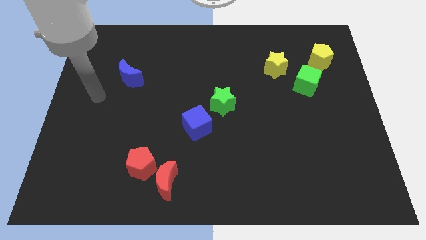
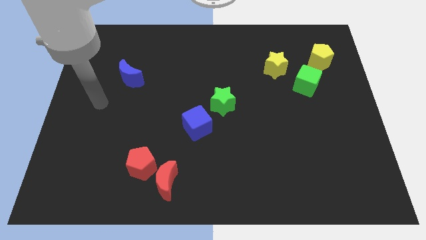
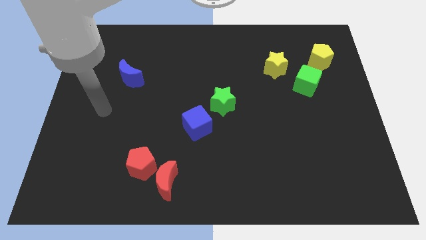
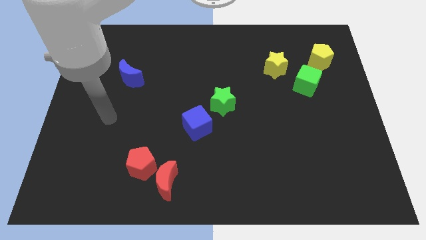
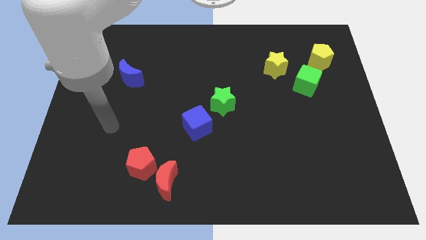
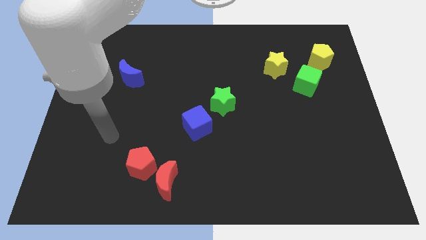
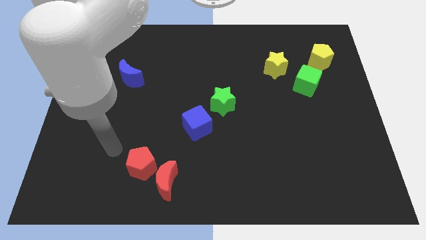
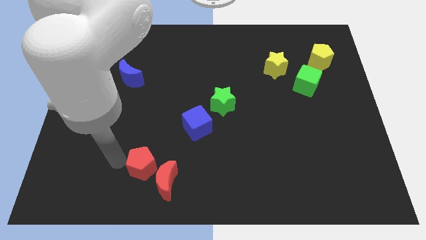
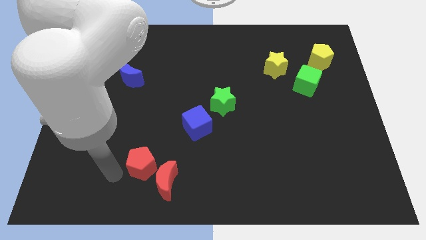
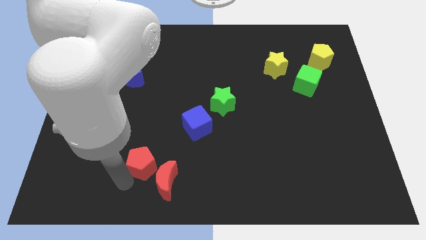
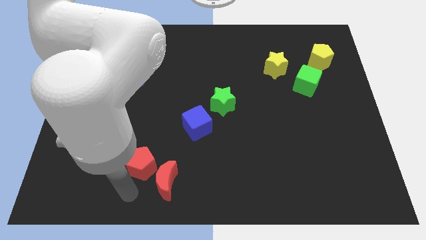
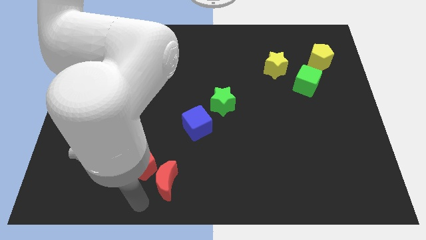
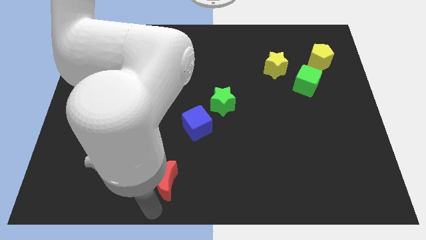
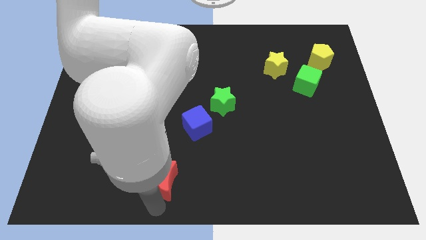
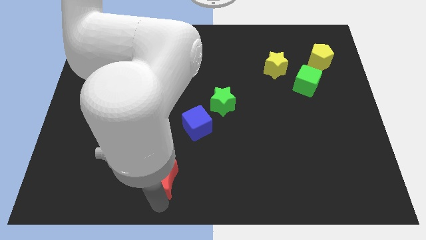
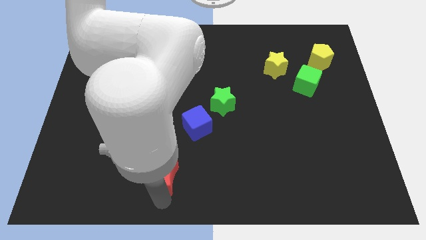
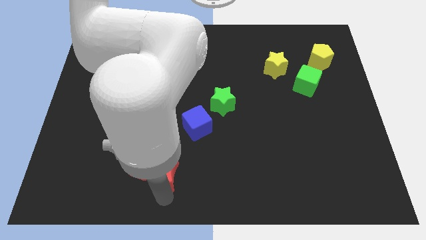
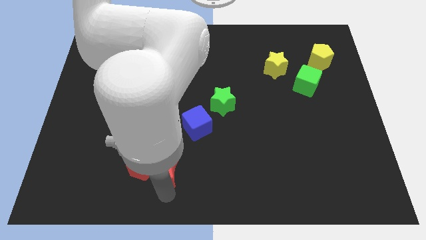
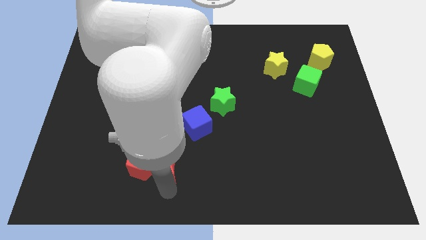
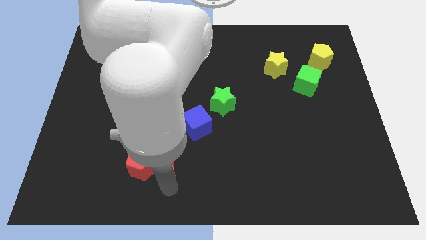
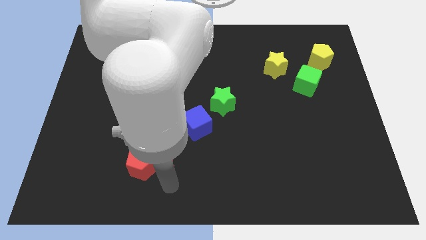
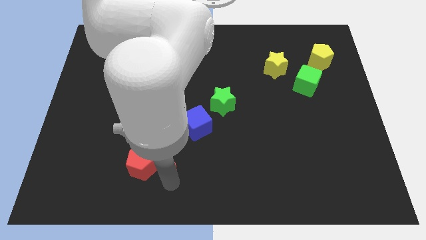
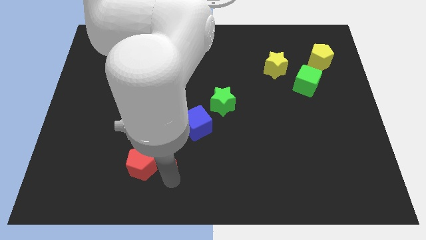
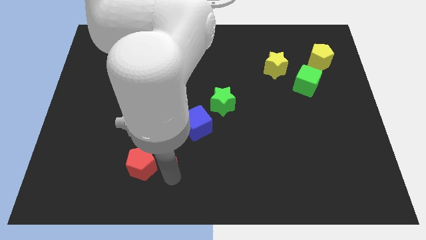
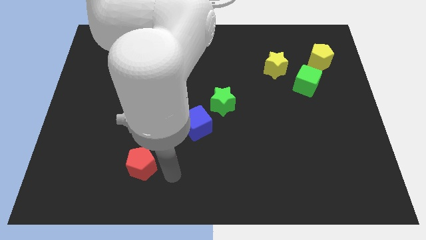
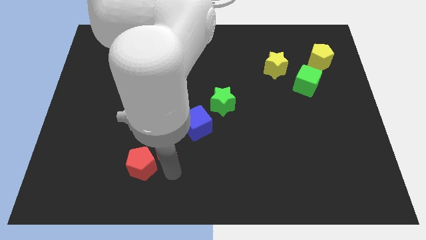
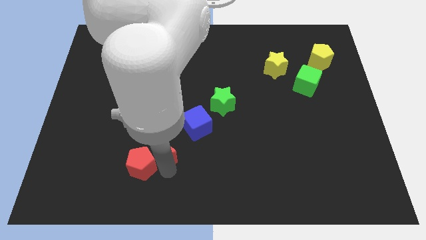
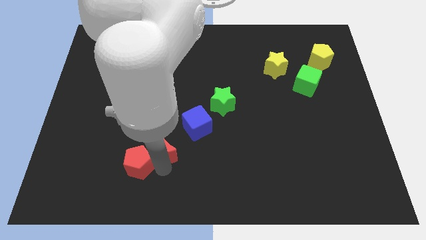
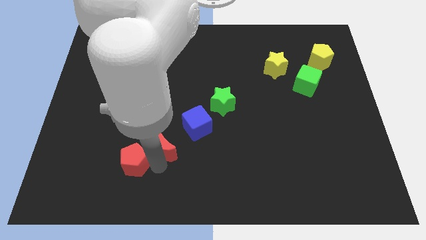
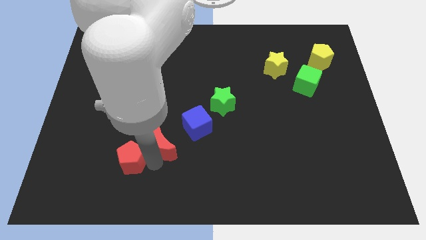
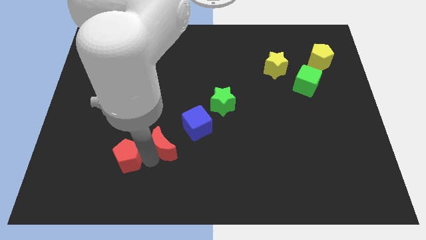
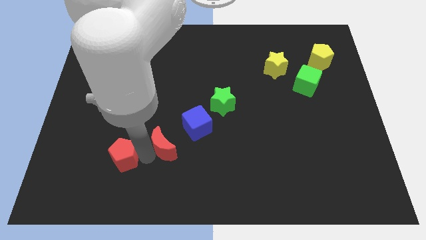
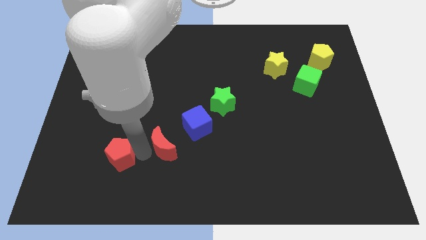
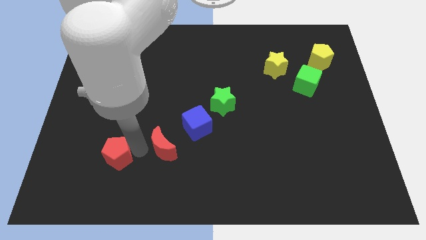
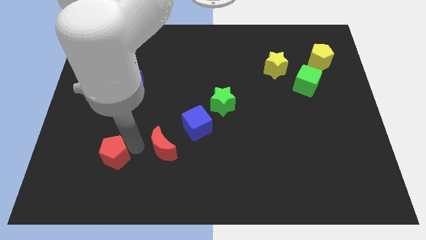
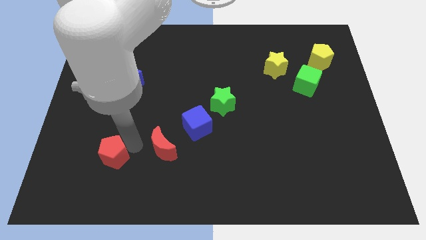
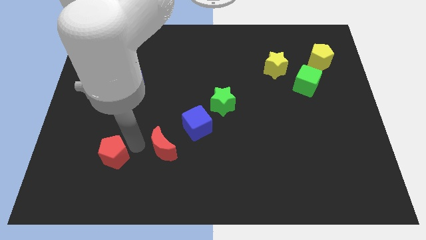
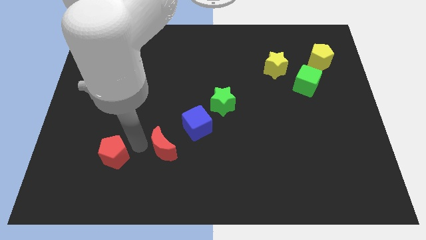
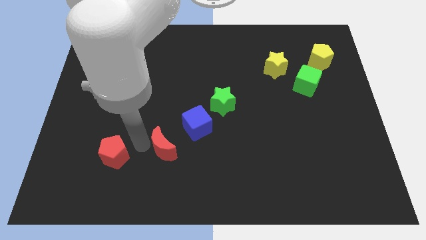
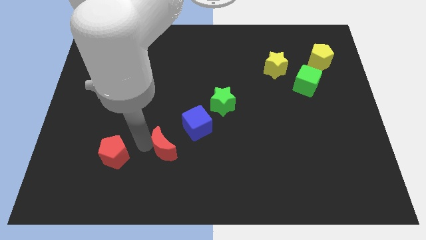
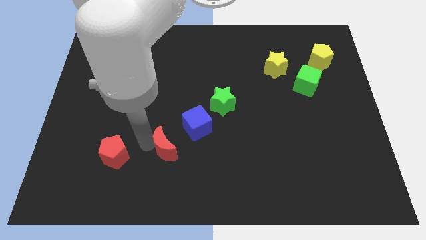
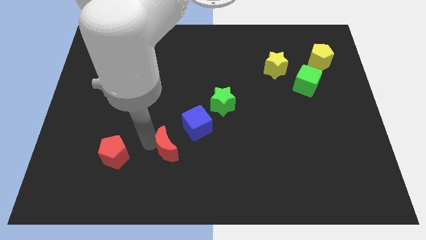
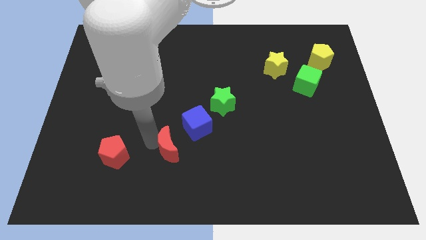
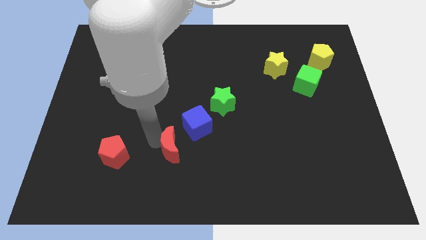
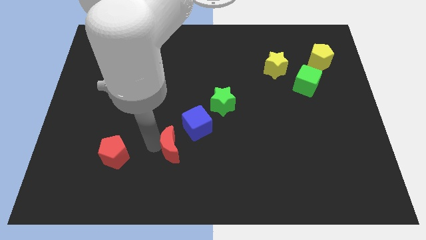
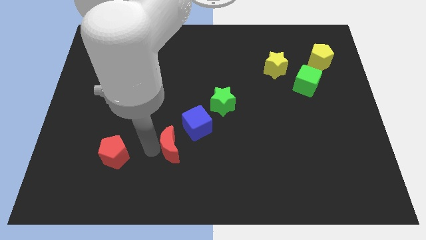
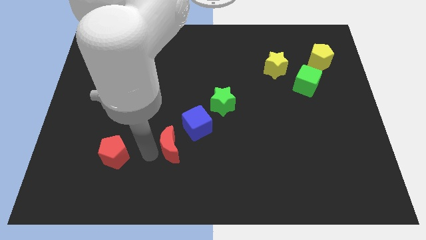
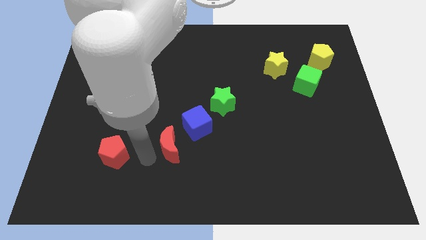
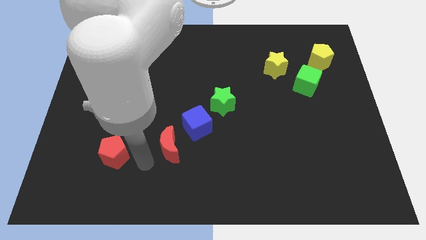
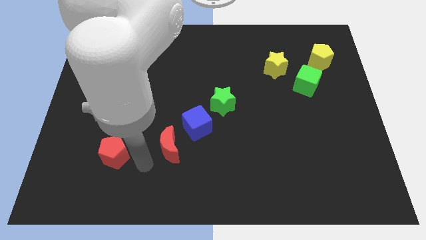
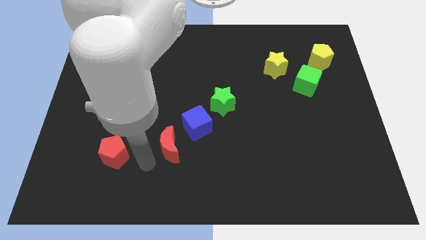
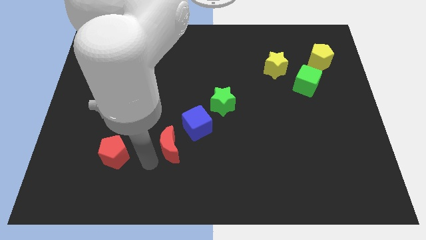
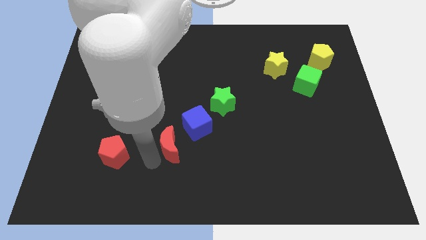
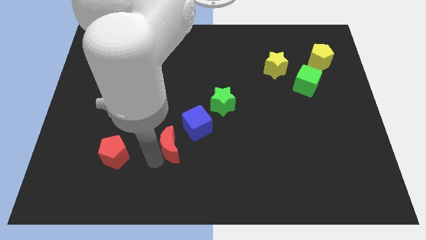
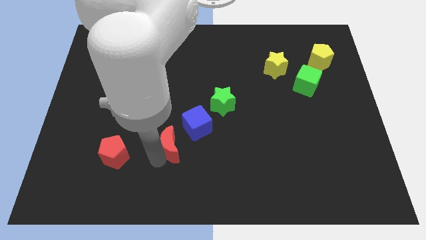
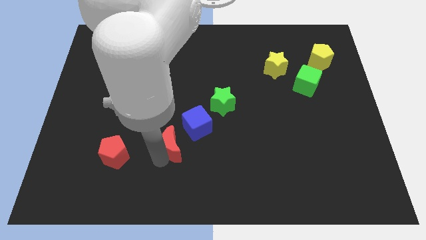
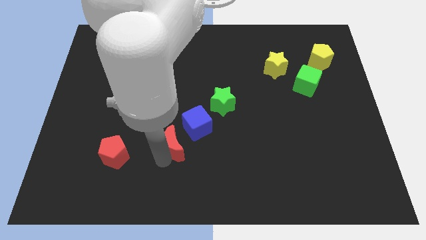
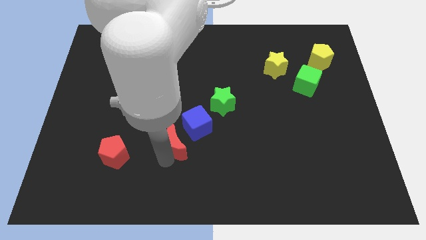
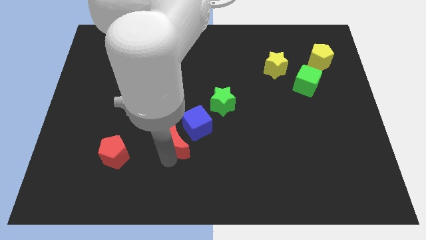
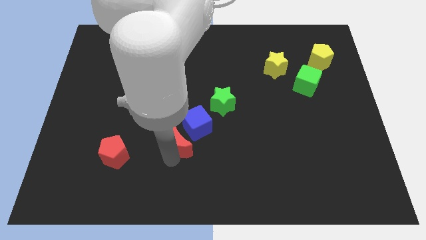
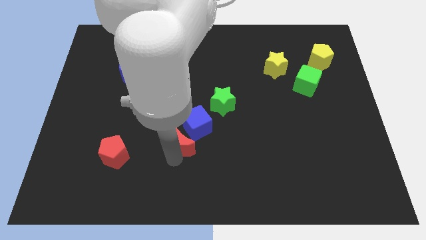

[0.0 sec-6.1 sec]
move the red moon next to the blue cube

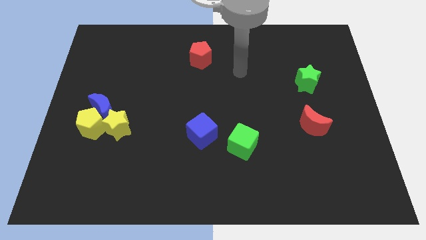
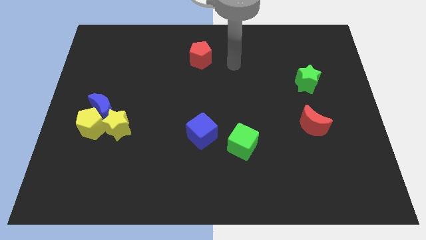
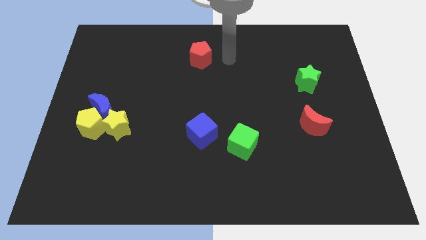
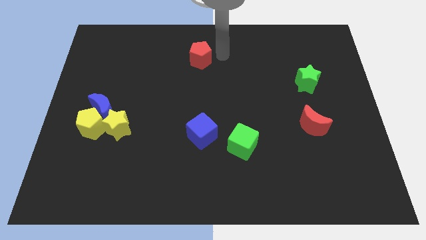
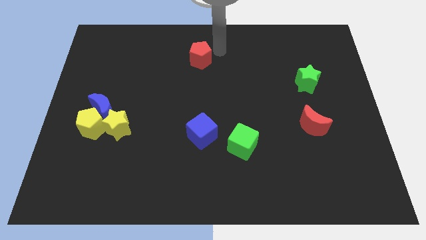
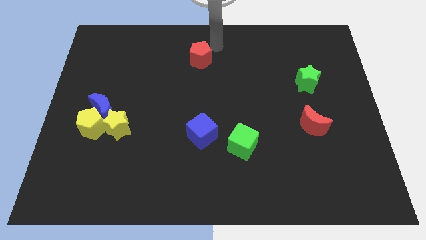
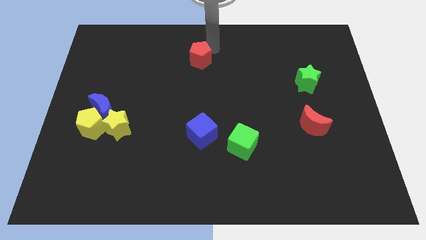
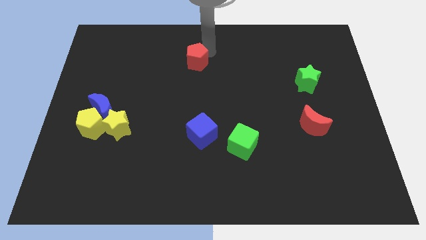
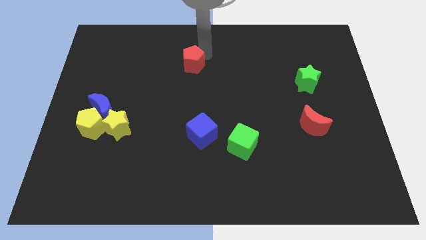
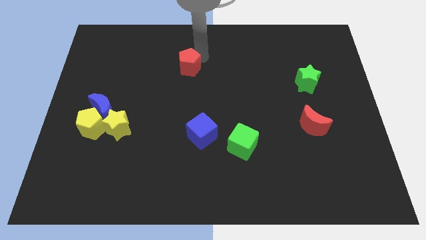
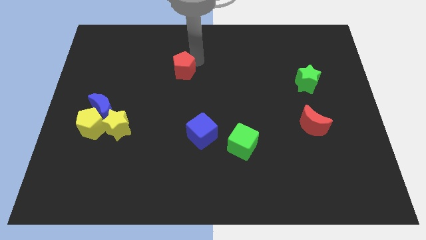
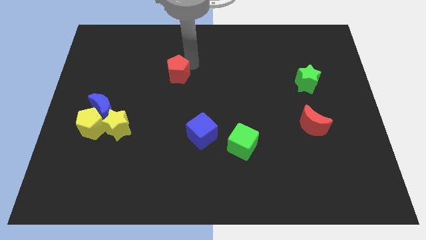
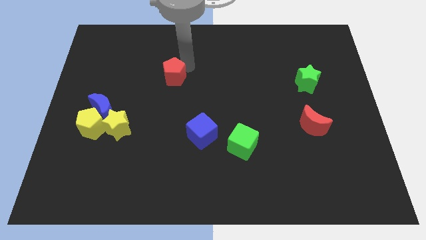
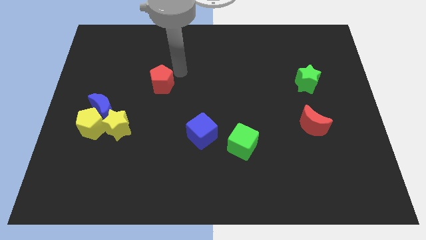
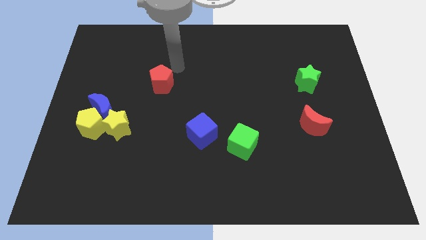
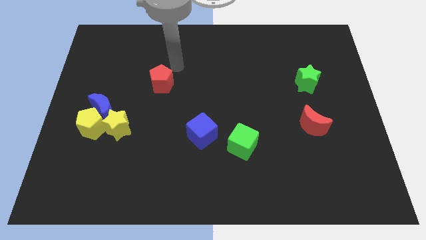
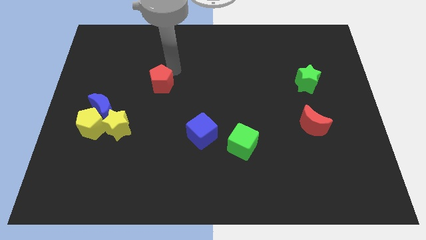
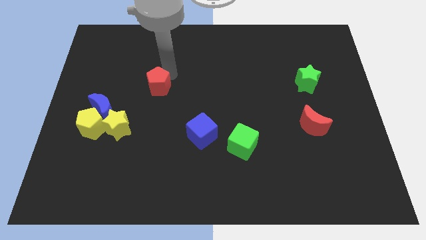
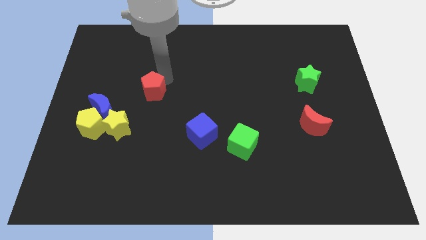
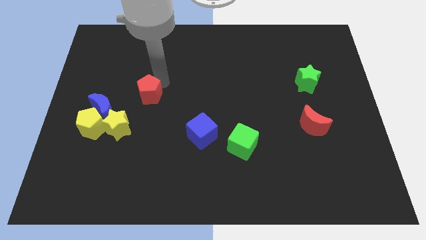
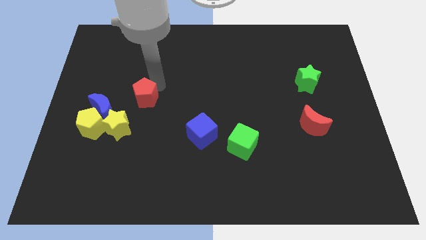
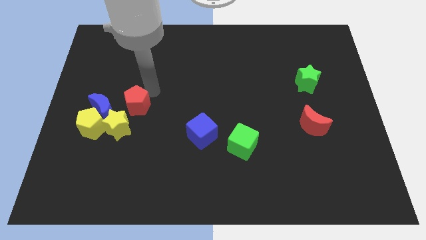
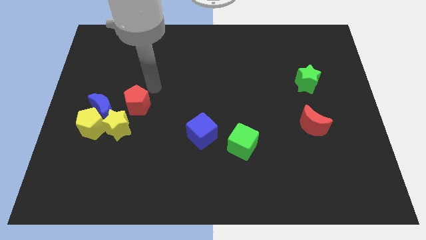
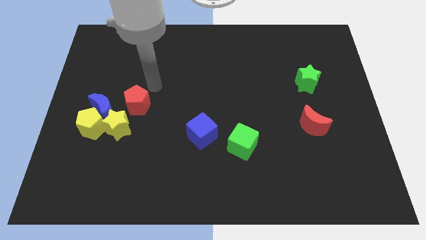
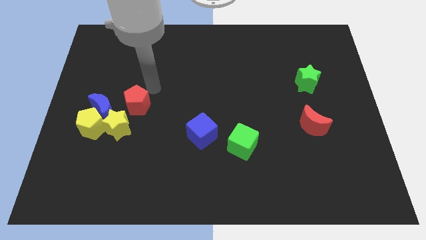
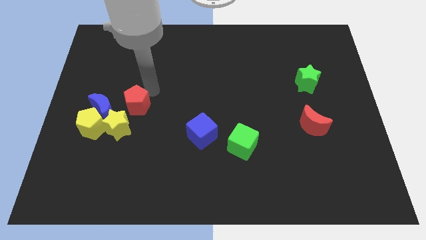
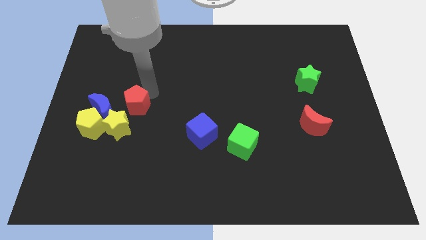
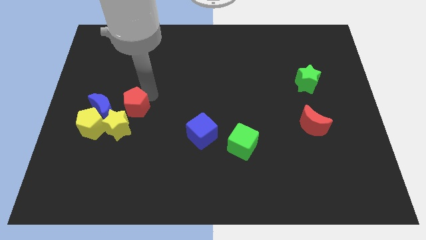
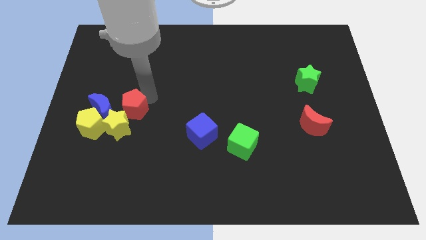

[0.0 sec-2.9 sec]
push the red pentagon next to the yellow star
